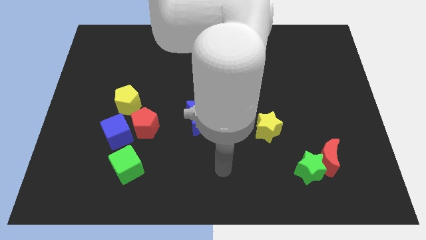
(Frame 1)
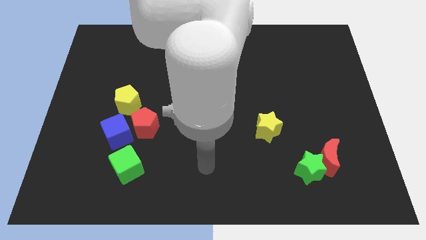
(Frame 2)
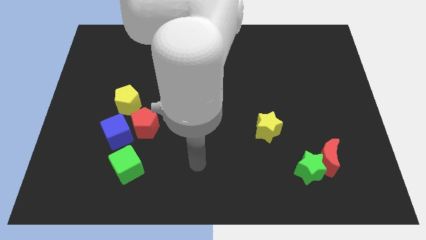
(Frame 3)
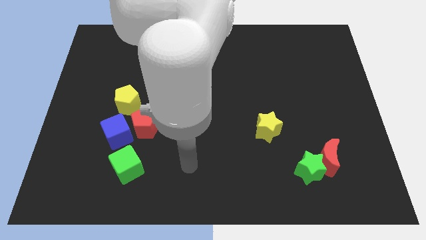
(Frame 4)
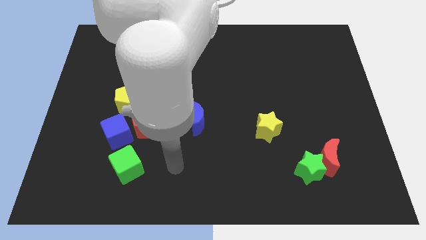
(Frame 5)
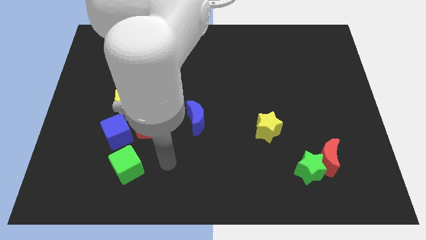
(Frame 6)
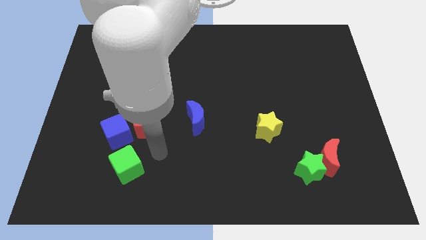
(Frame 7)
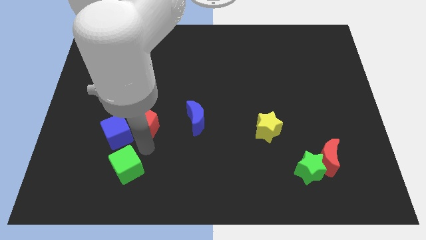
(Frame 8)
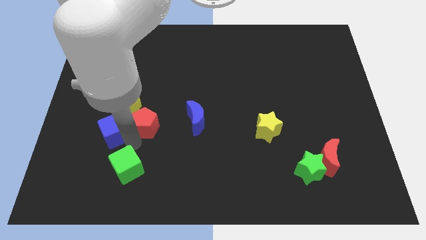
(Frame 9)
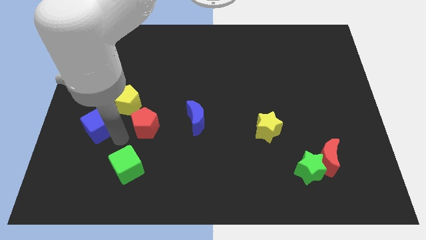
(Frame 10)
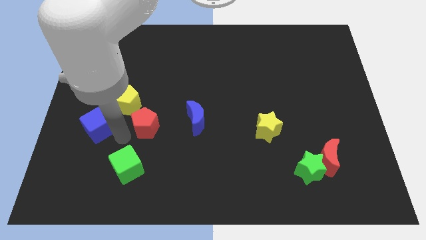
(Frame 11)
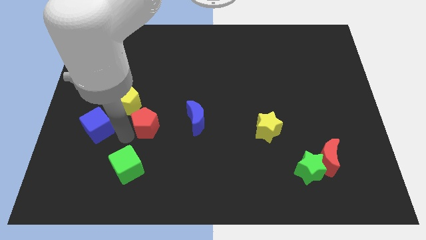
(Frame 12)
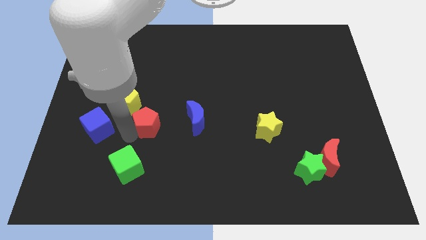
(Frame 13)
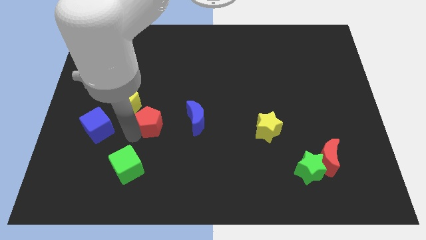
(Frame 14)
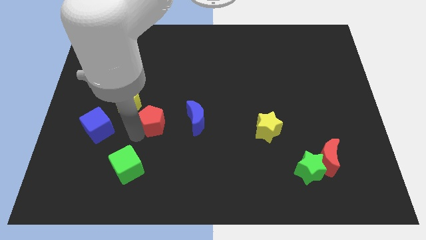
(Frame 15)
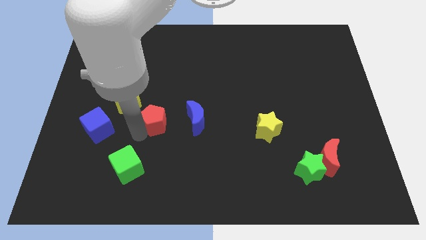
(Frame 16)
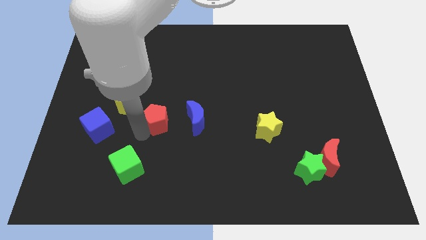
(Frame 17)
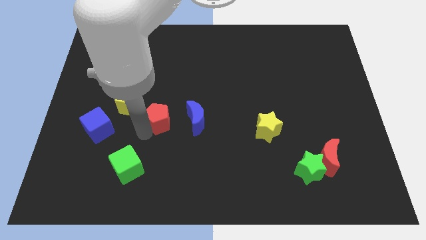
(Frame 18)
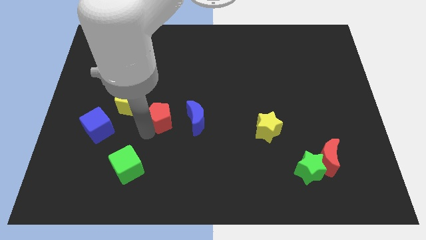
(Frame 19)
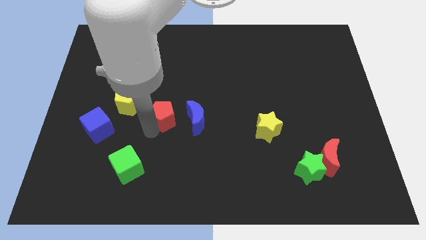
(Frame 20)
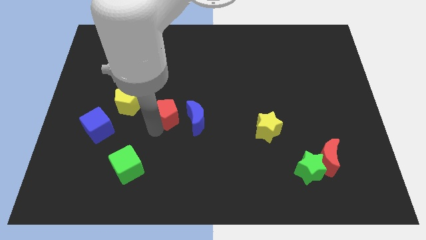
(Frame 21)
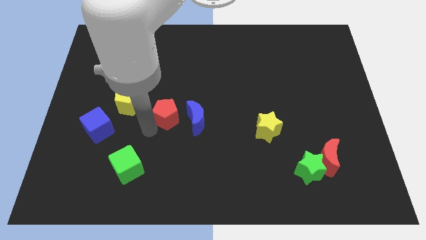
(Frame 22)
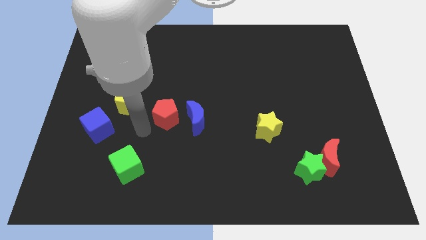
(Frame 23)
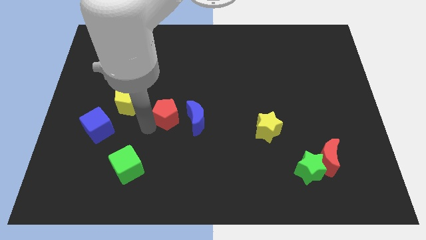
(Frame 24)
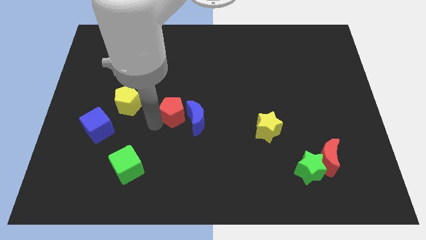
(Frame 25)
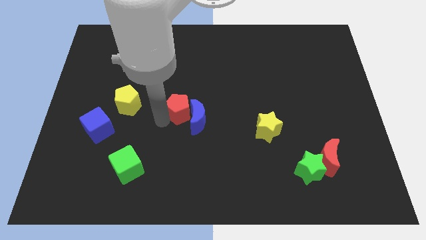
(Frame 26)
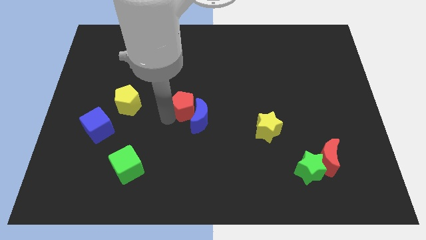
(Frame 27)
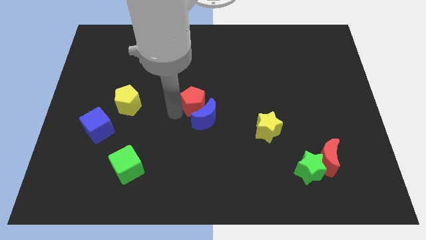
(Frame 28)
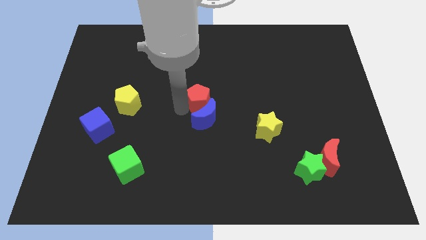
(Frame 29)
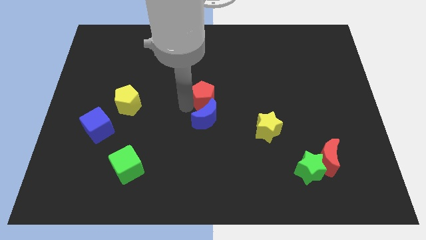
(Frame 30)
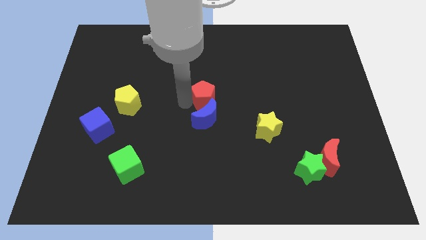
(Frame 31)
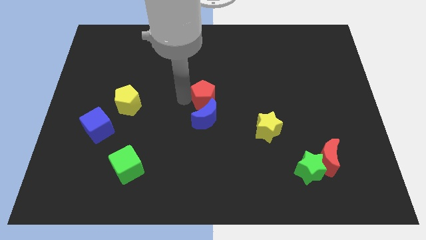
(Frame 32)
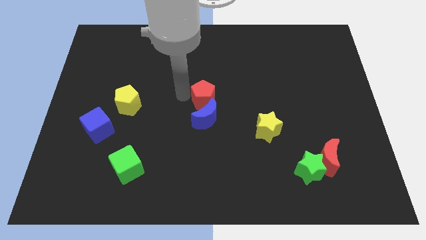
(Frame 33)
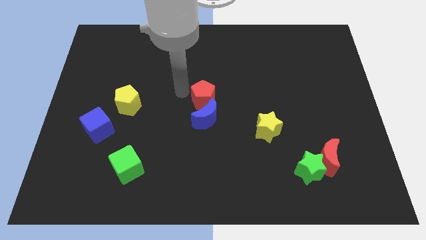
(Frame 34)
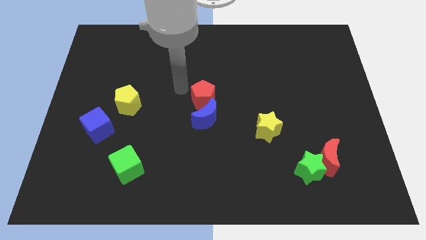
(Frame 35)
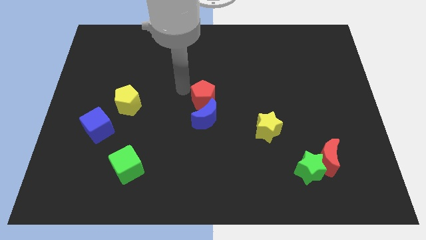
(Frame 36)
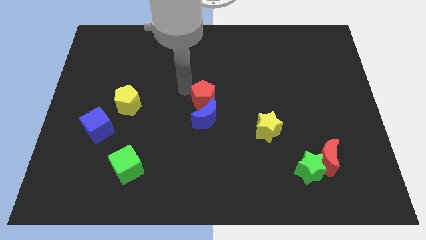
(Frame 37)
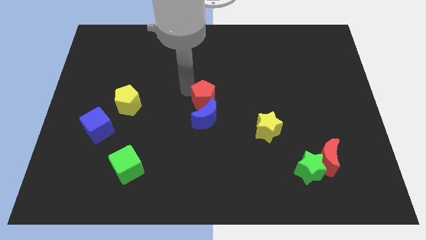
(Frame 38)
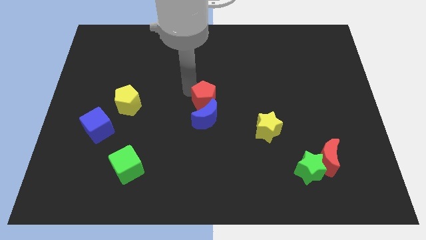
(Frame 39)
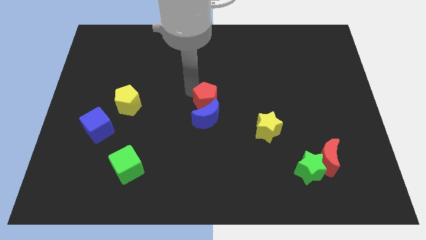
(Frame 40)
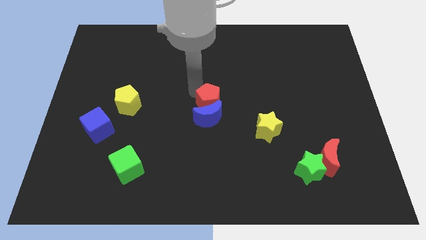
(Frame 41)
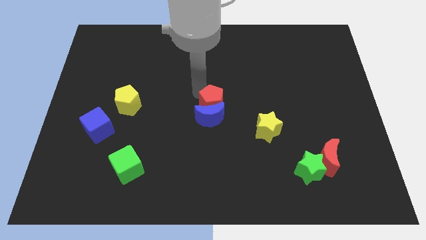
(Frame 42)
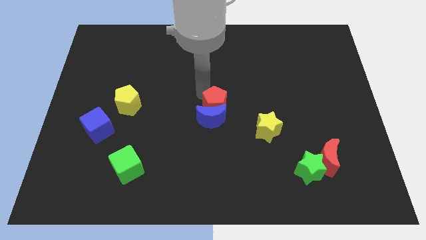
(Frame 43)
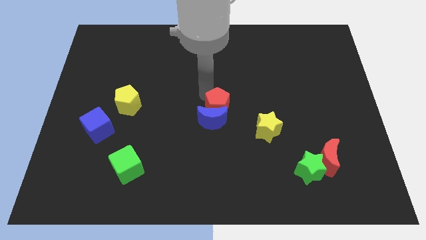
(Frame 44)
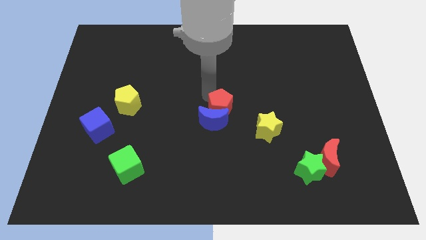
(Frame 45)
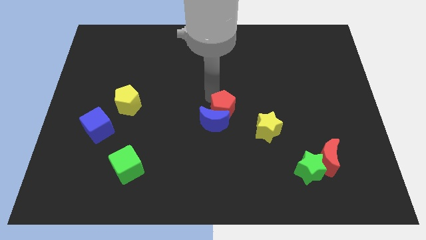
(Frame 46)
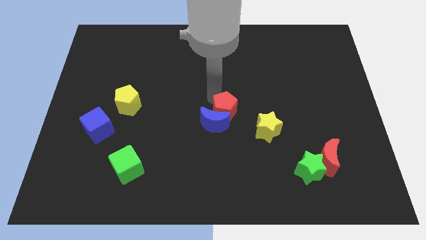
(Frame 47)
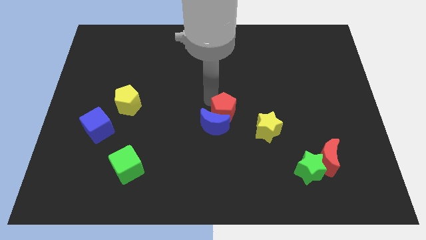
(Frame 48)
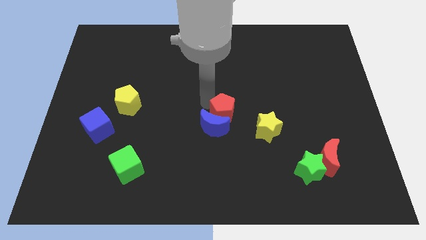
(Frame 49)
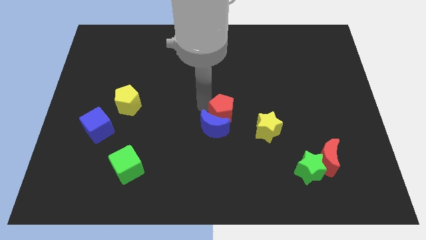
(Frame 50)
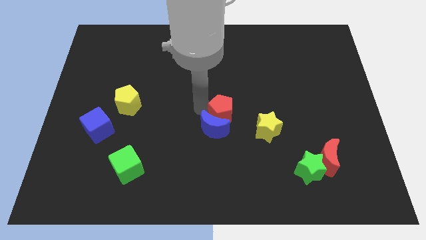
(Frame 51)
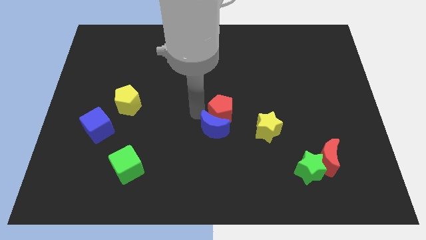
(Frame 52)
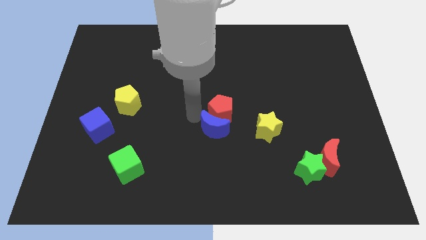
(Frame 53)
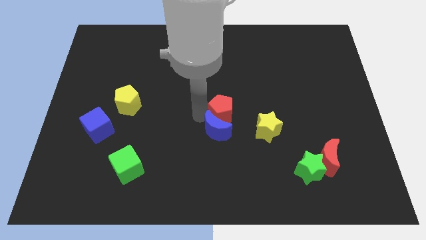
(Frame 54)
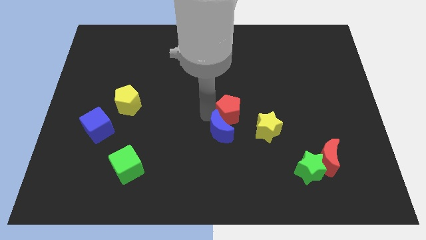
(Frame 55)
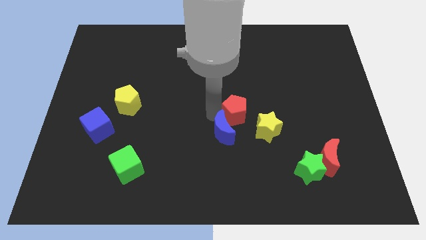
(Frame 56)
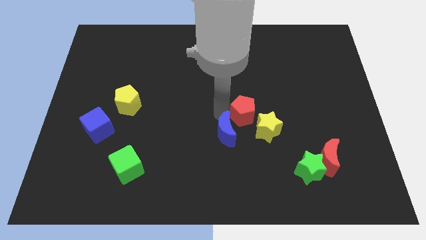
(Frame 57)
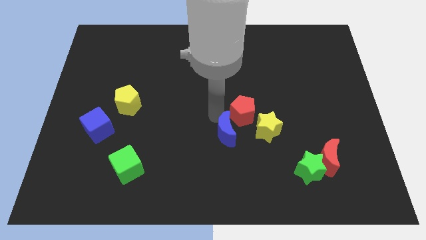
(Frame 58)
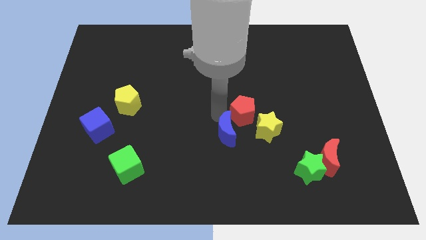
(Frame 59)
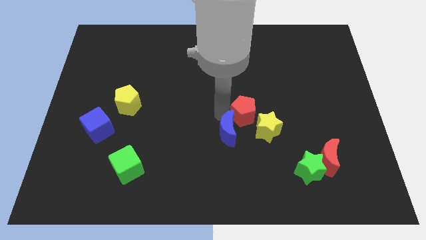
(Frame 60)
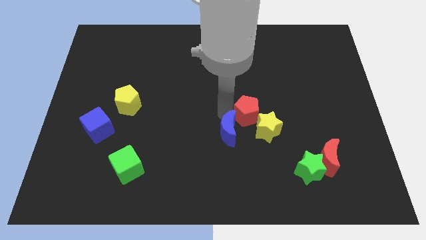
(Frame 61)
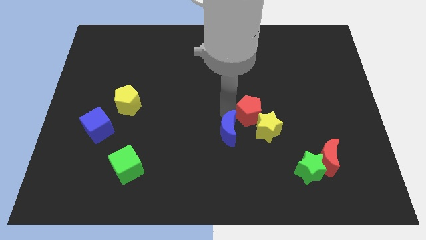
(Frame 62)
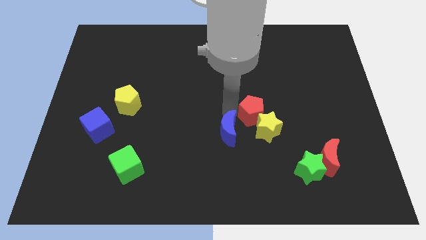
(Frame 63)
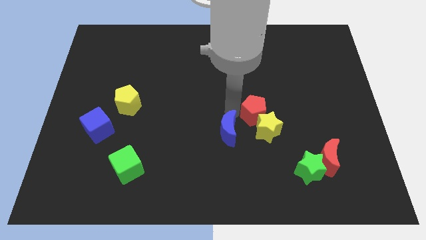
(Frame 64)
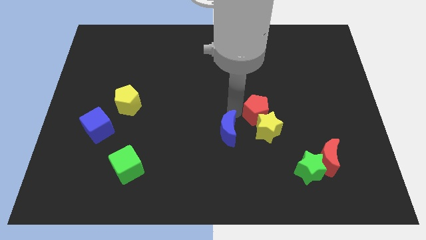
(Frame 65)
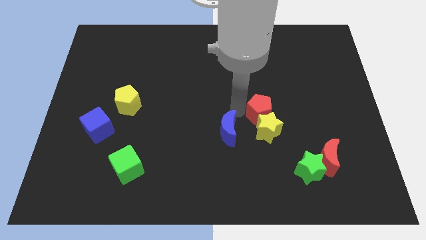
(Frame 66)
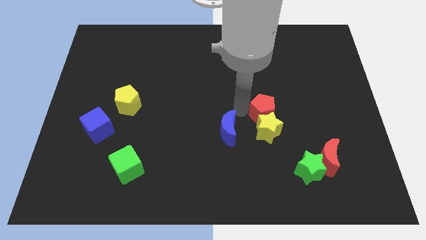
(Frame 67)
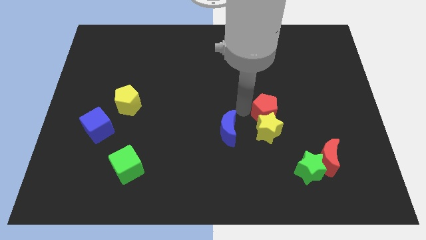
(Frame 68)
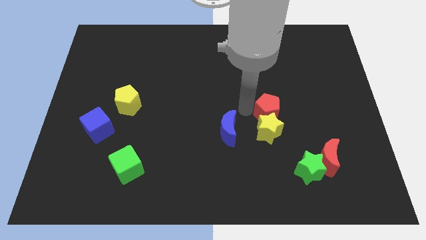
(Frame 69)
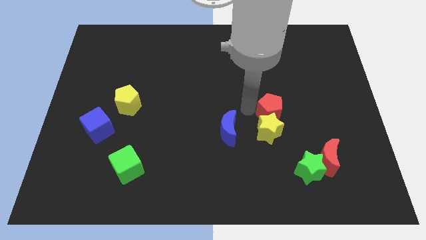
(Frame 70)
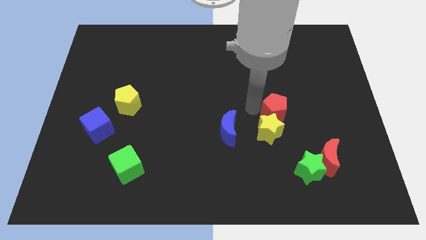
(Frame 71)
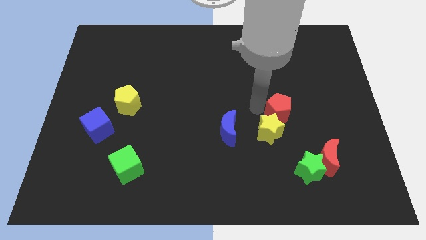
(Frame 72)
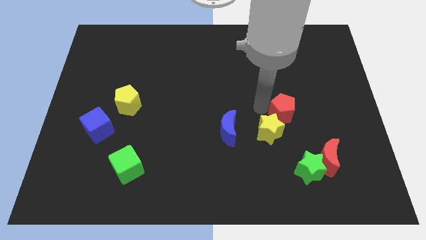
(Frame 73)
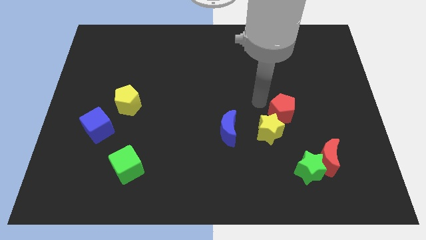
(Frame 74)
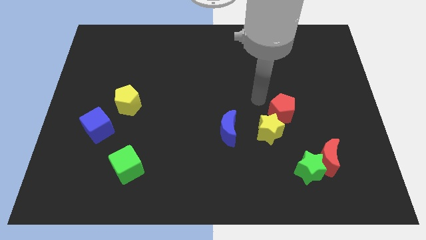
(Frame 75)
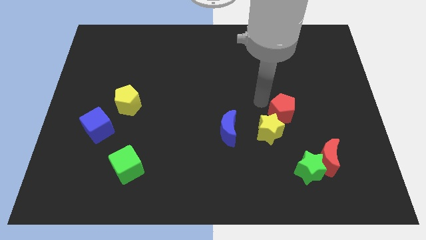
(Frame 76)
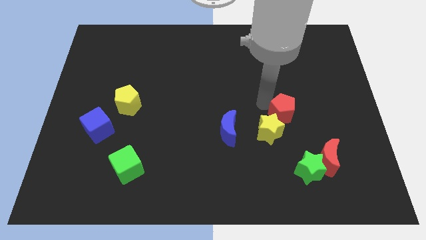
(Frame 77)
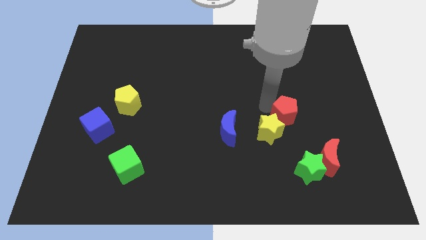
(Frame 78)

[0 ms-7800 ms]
push the red pentagon to the right side of the yellow star
